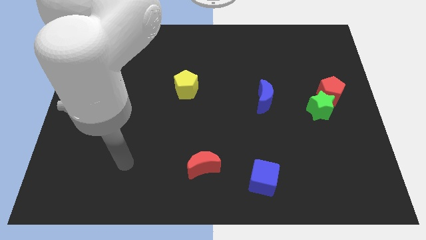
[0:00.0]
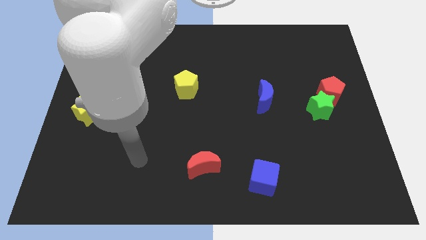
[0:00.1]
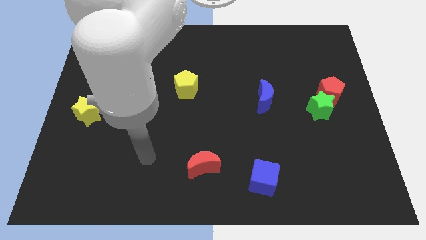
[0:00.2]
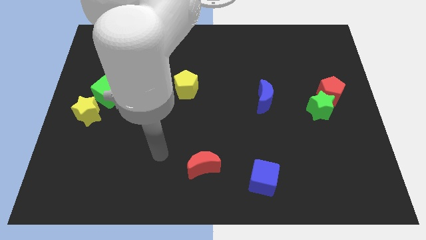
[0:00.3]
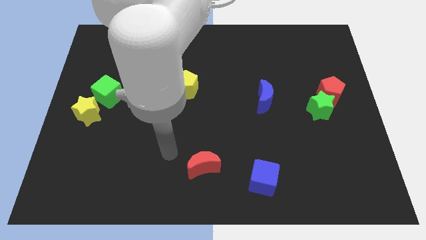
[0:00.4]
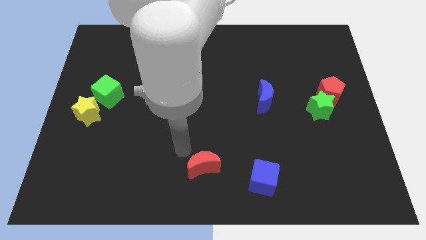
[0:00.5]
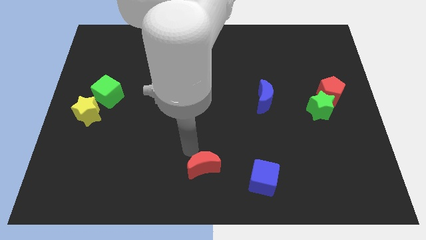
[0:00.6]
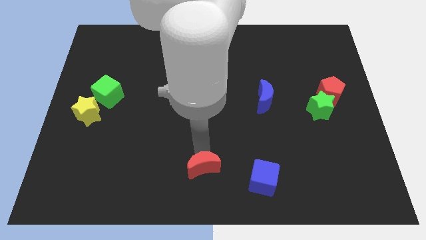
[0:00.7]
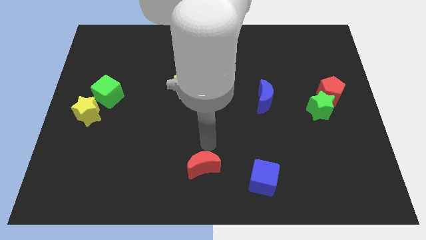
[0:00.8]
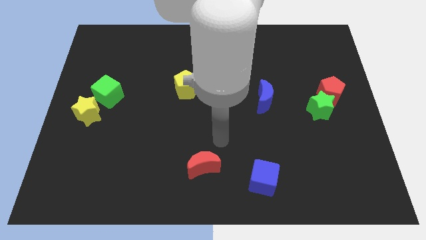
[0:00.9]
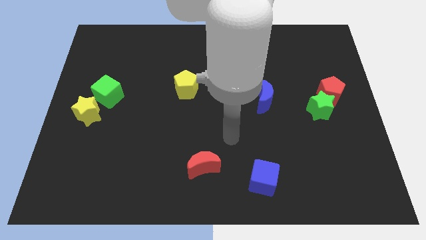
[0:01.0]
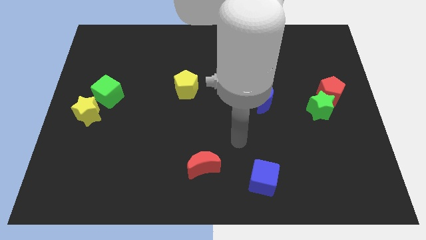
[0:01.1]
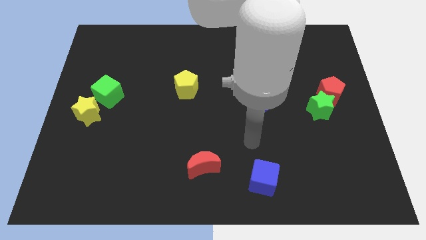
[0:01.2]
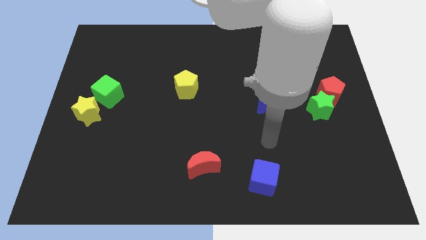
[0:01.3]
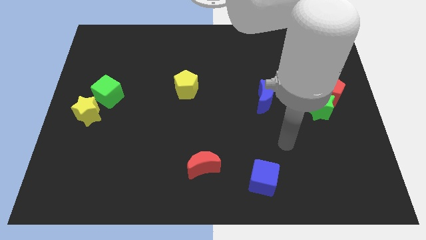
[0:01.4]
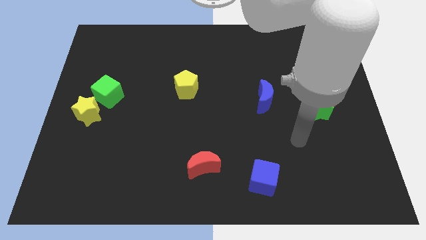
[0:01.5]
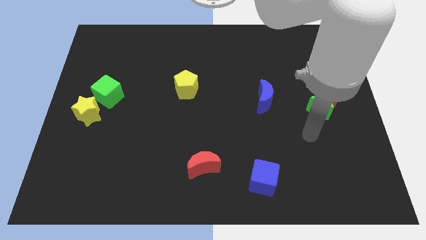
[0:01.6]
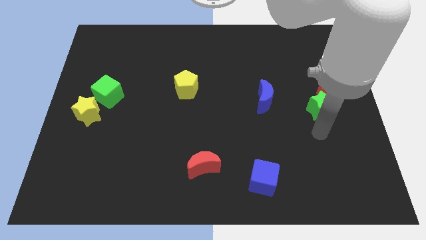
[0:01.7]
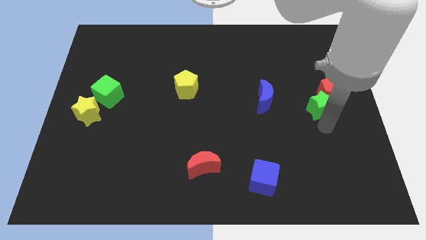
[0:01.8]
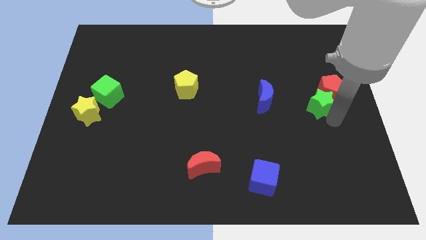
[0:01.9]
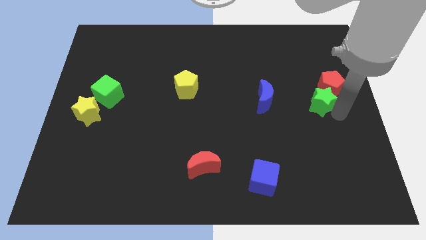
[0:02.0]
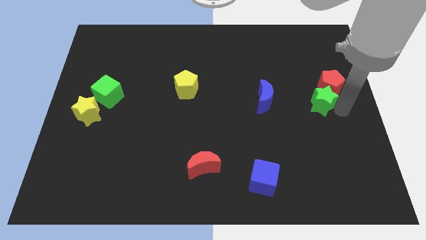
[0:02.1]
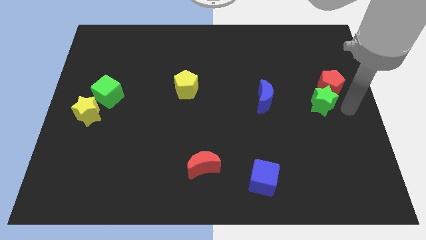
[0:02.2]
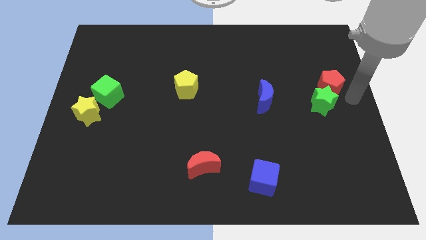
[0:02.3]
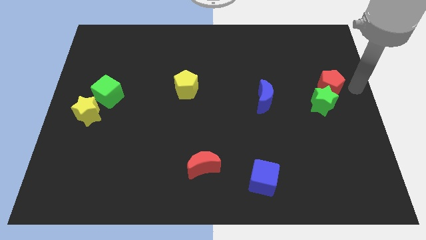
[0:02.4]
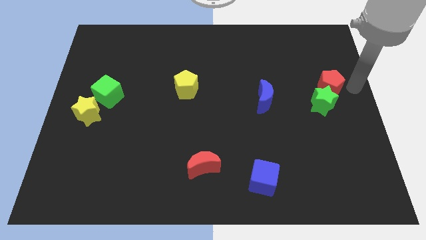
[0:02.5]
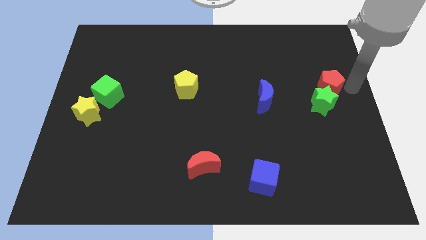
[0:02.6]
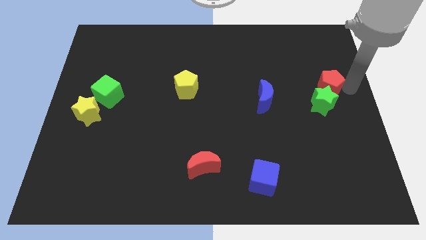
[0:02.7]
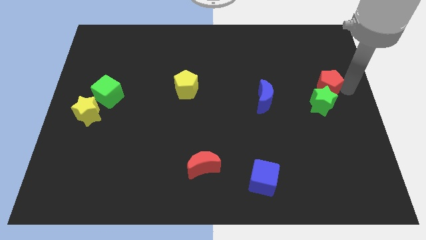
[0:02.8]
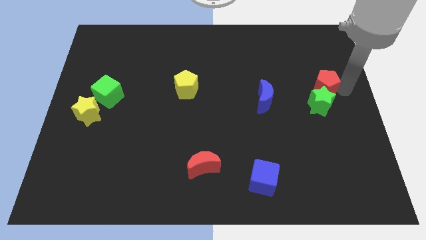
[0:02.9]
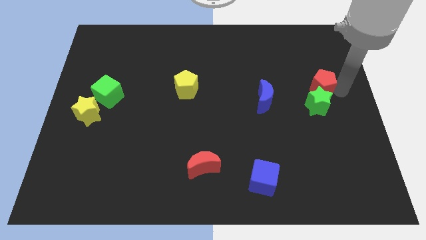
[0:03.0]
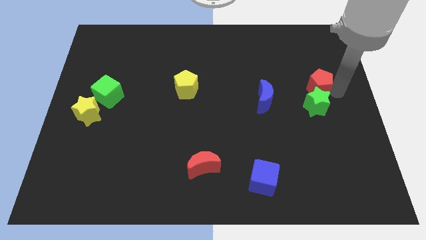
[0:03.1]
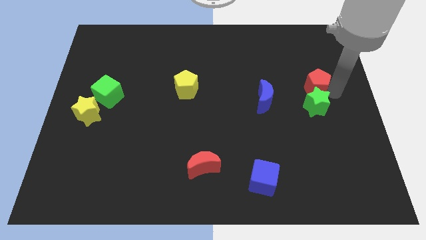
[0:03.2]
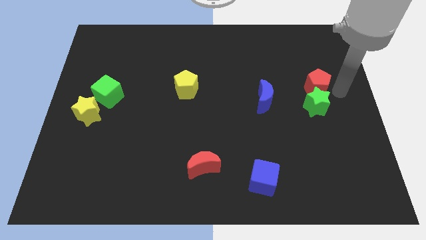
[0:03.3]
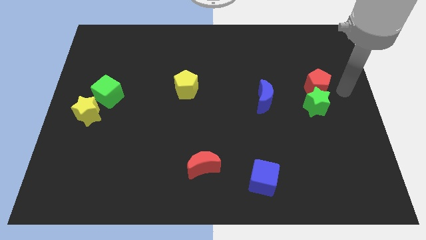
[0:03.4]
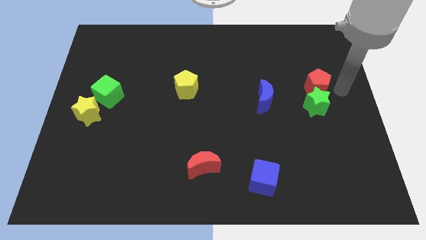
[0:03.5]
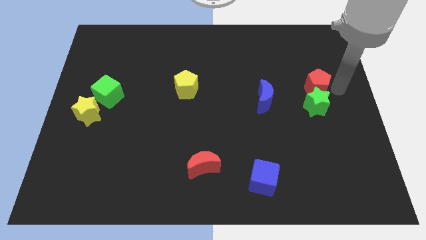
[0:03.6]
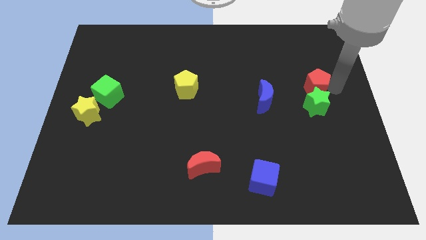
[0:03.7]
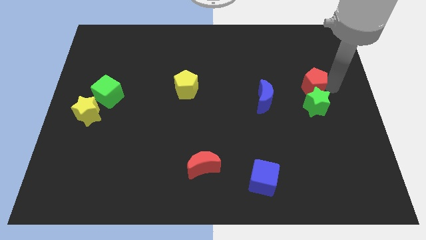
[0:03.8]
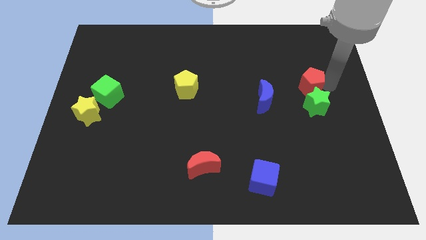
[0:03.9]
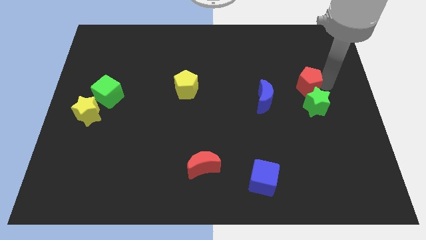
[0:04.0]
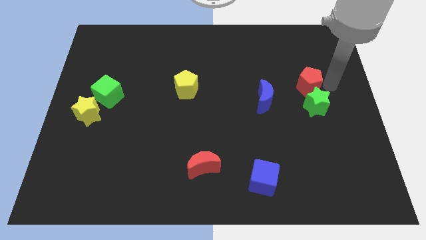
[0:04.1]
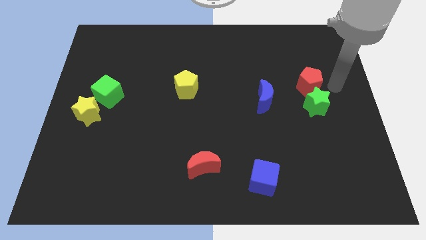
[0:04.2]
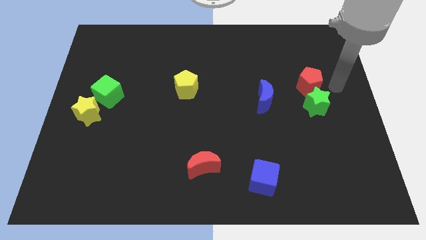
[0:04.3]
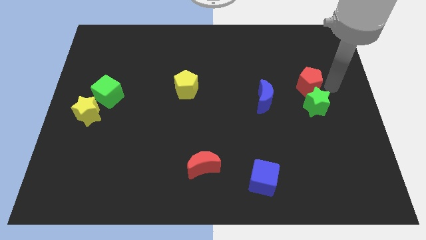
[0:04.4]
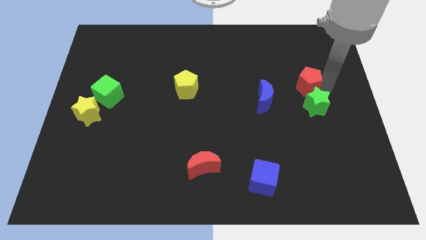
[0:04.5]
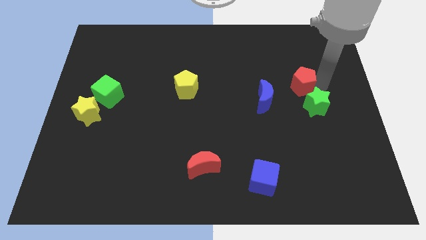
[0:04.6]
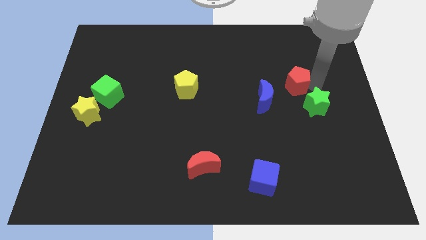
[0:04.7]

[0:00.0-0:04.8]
slightly push the red pentagon to the left

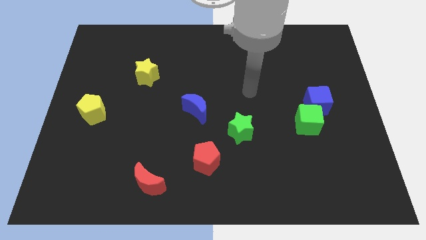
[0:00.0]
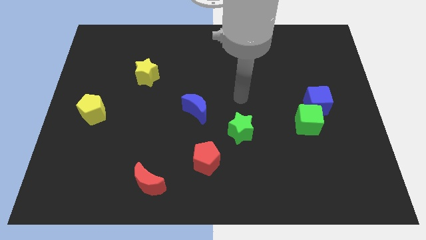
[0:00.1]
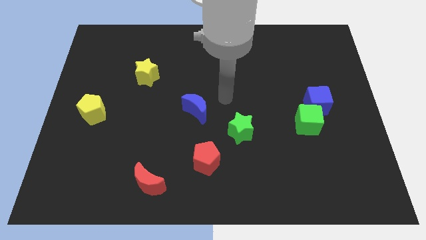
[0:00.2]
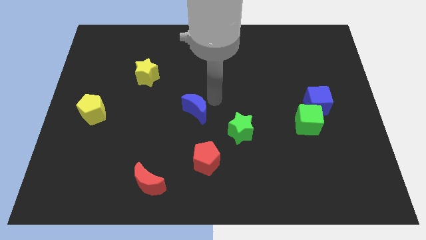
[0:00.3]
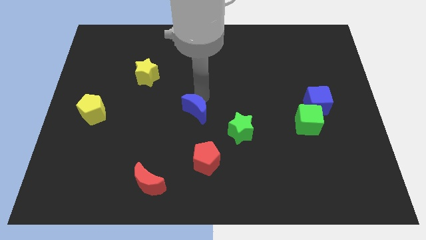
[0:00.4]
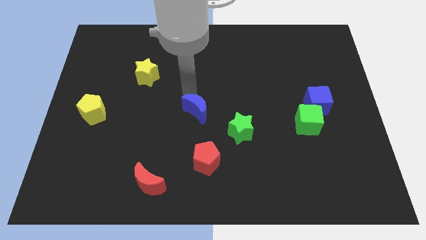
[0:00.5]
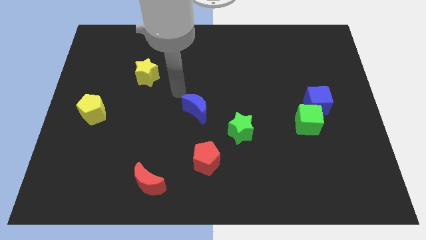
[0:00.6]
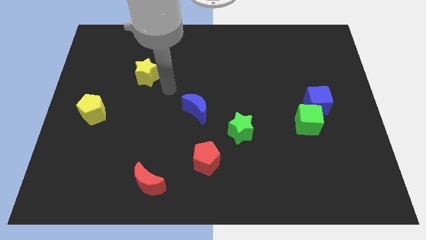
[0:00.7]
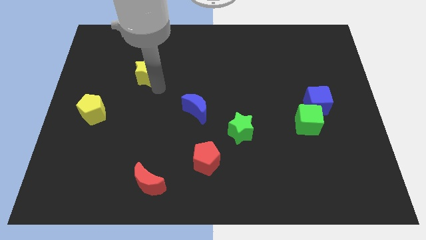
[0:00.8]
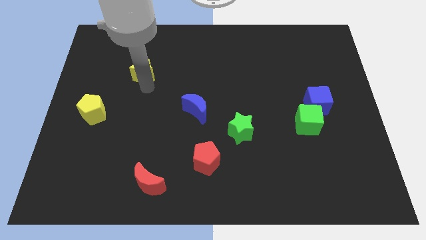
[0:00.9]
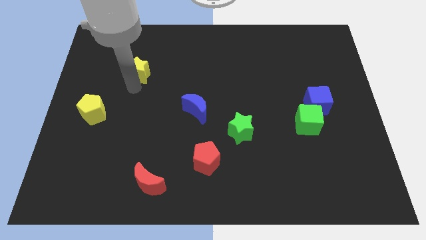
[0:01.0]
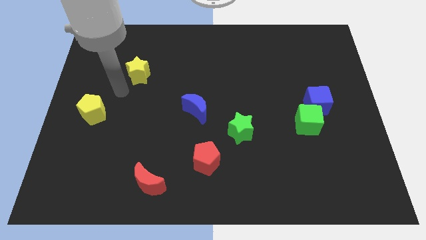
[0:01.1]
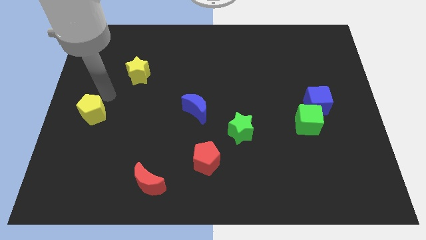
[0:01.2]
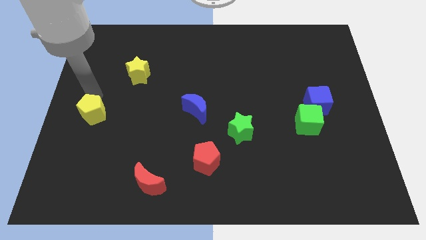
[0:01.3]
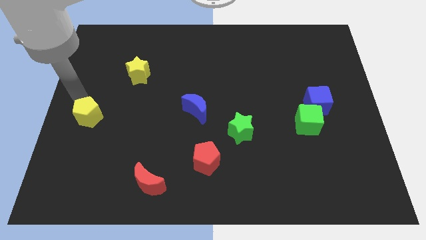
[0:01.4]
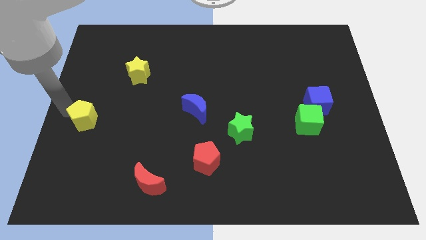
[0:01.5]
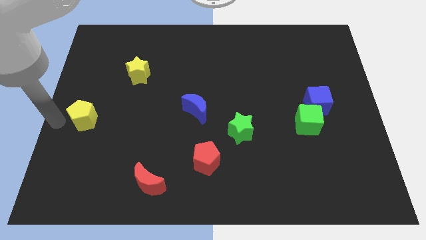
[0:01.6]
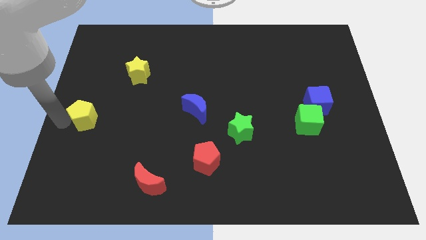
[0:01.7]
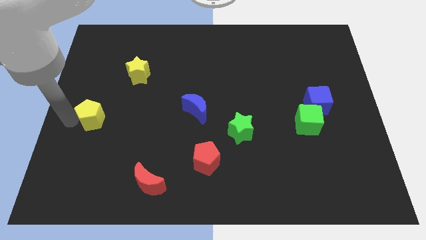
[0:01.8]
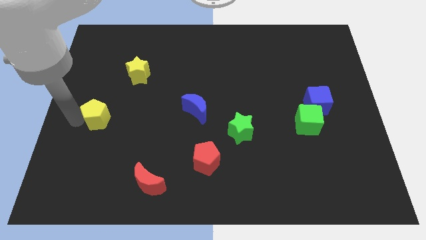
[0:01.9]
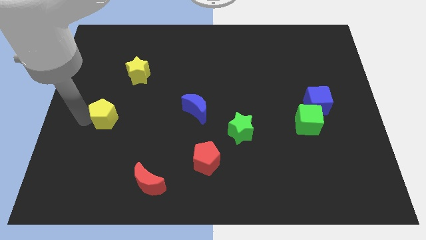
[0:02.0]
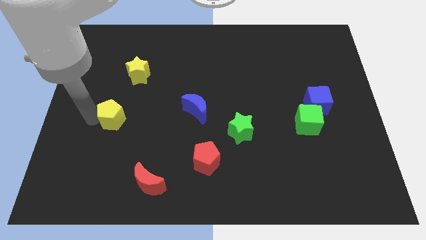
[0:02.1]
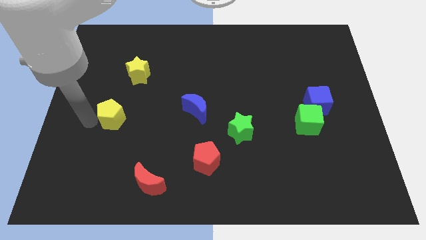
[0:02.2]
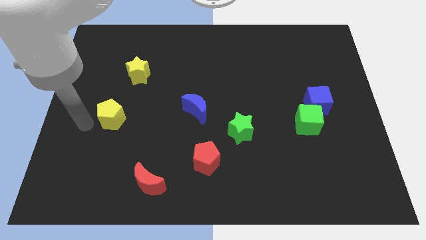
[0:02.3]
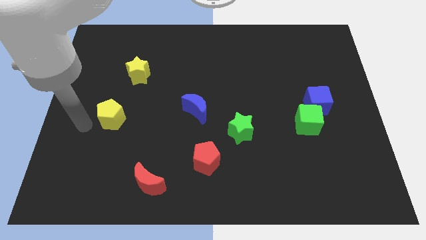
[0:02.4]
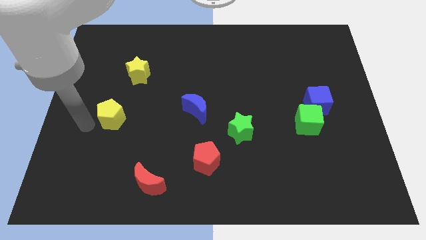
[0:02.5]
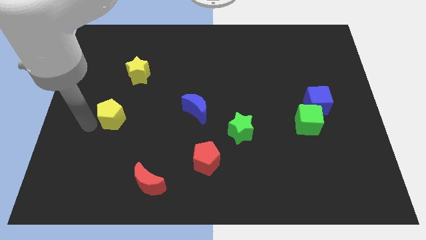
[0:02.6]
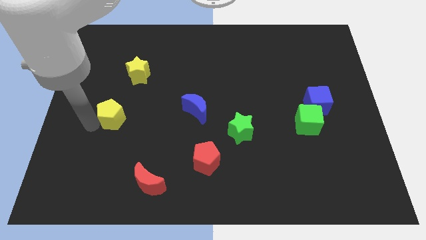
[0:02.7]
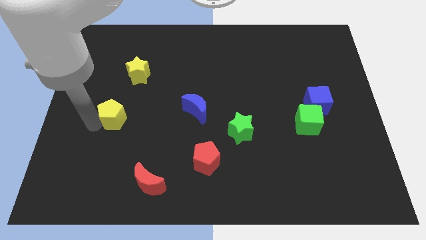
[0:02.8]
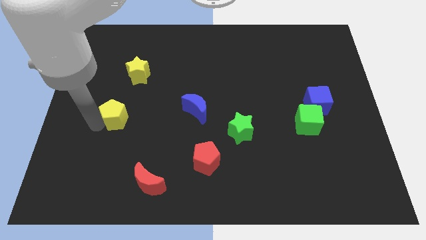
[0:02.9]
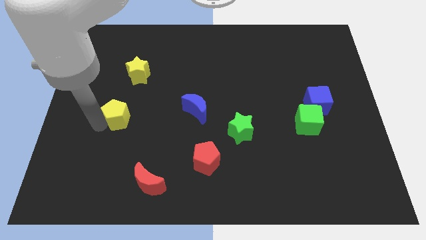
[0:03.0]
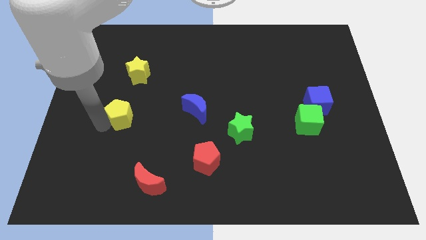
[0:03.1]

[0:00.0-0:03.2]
move the yellow pentagon a little bit to the right
